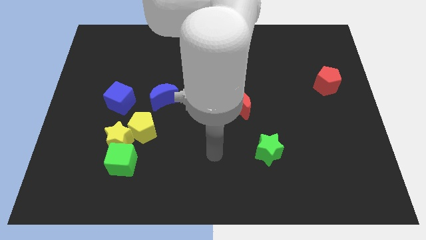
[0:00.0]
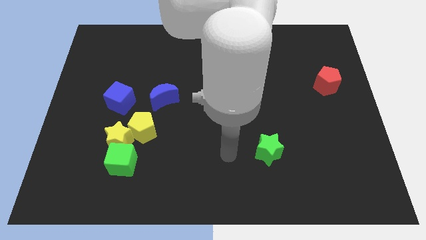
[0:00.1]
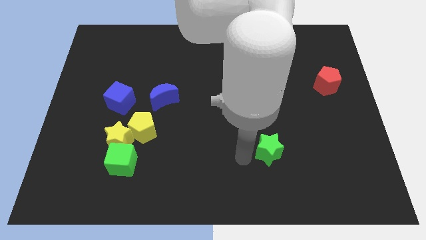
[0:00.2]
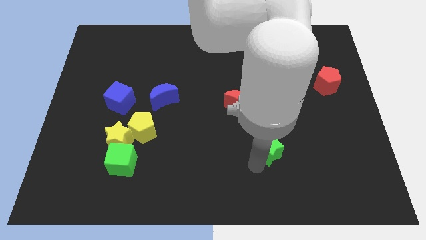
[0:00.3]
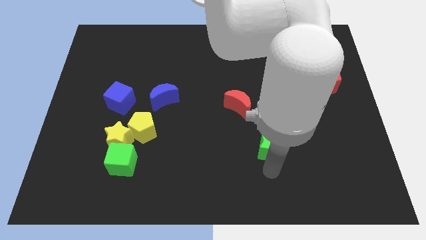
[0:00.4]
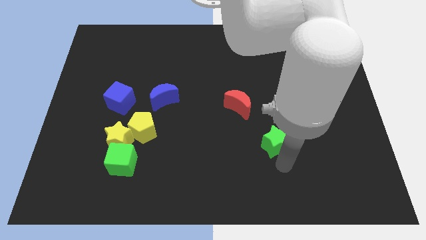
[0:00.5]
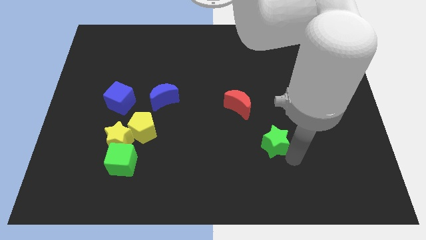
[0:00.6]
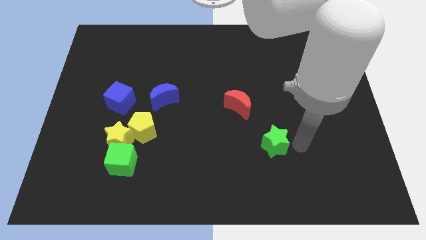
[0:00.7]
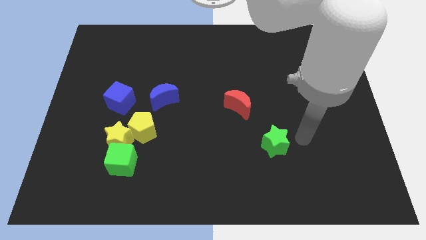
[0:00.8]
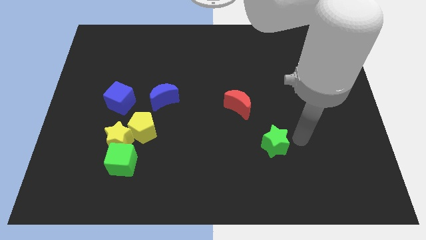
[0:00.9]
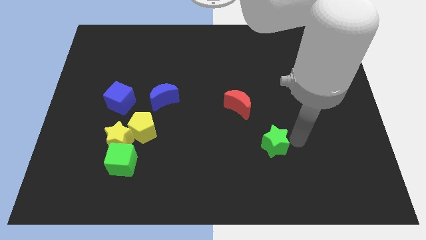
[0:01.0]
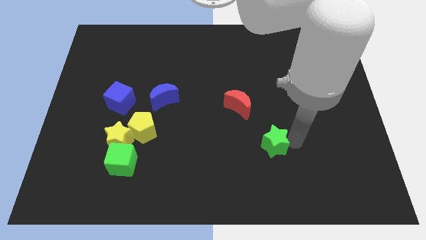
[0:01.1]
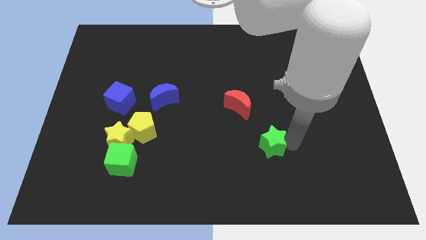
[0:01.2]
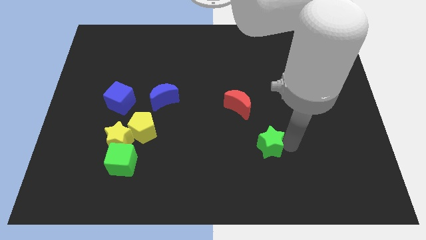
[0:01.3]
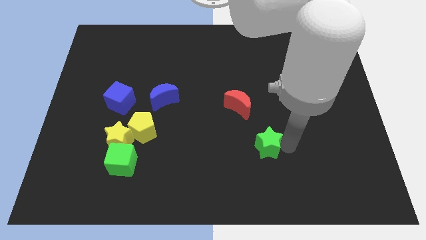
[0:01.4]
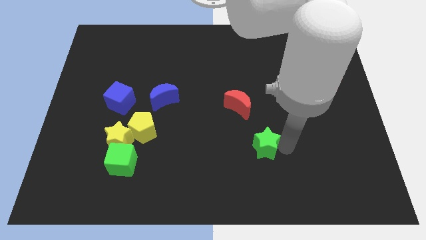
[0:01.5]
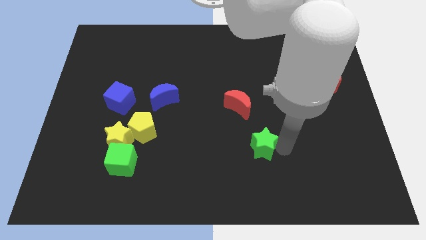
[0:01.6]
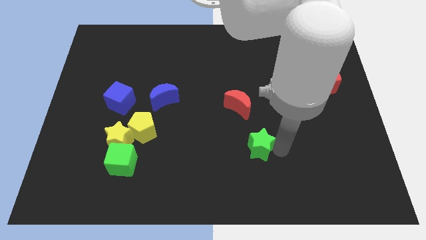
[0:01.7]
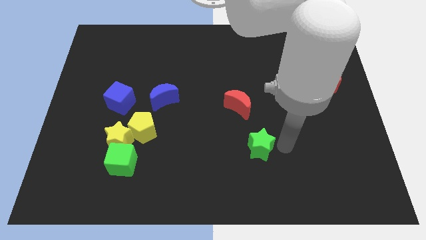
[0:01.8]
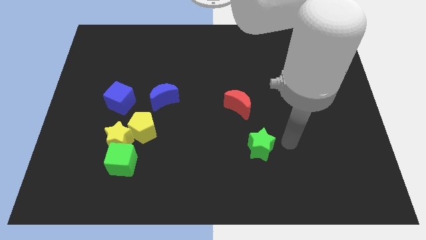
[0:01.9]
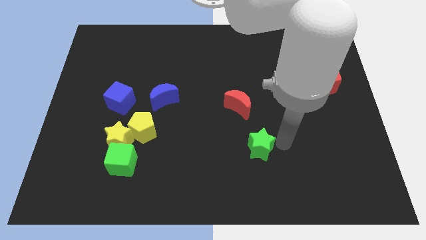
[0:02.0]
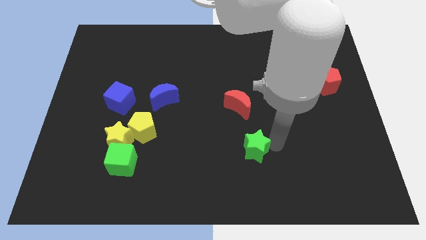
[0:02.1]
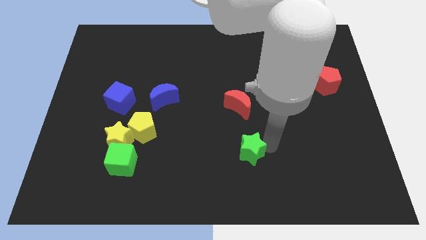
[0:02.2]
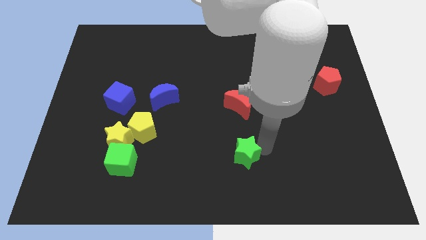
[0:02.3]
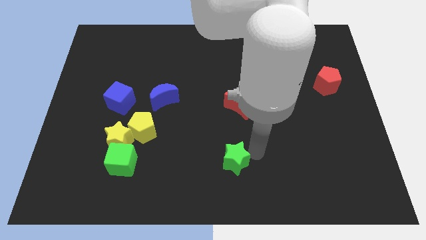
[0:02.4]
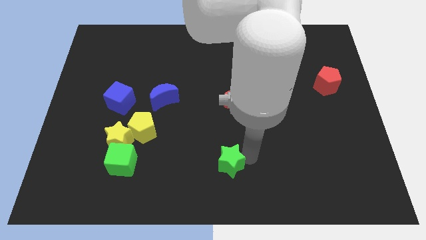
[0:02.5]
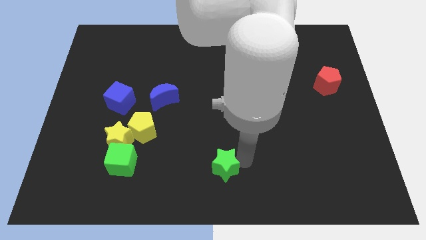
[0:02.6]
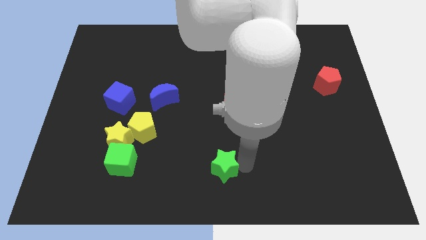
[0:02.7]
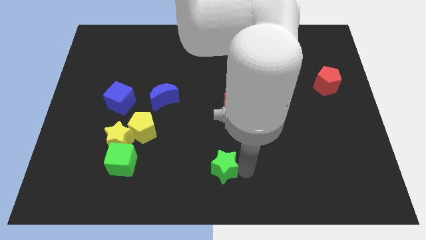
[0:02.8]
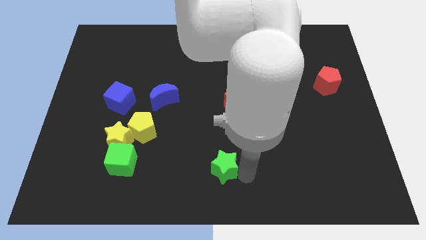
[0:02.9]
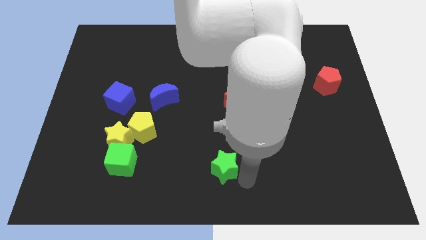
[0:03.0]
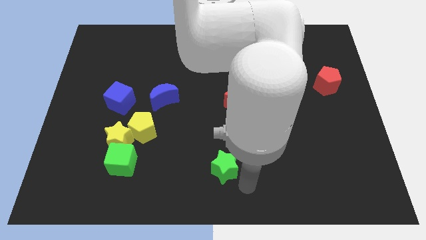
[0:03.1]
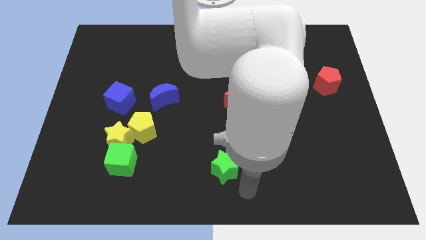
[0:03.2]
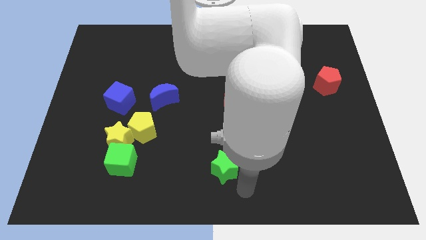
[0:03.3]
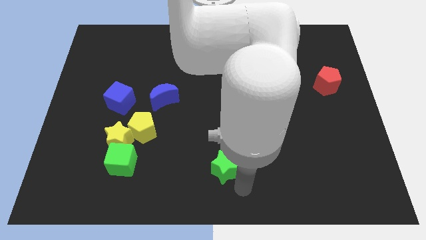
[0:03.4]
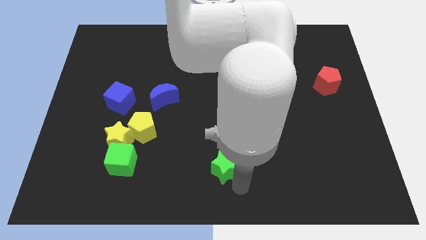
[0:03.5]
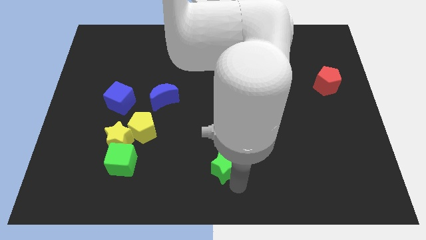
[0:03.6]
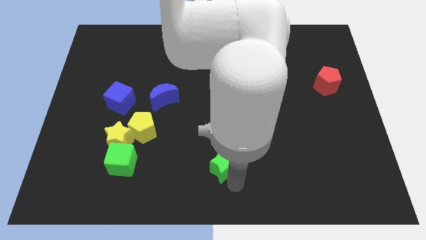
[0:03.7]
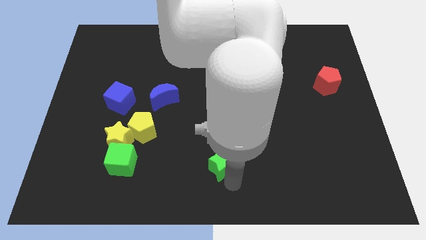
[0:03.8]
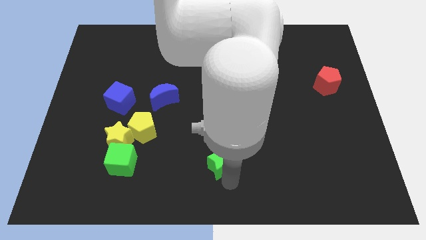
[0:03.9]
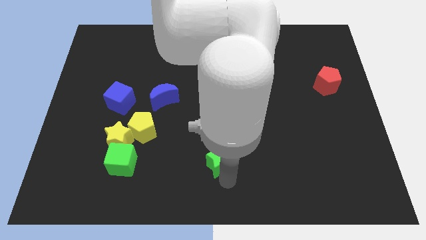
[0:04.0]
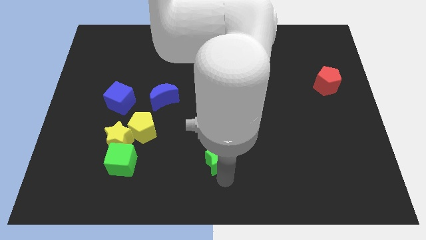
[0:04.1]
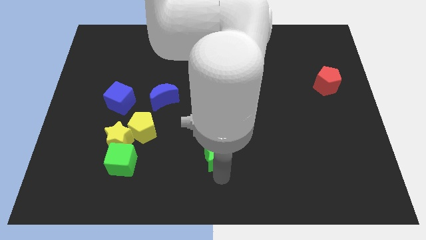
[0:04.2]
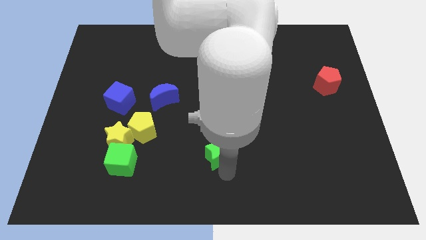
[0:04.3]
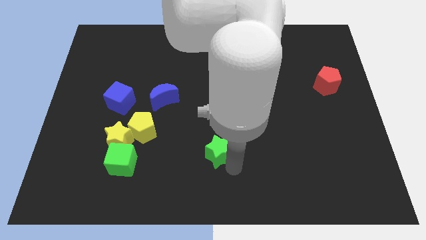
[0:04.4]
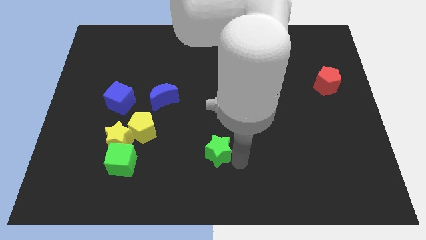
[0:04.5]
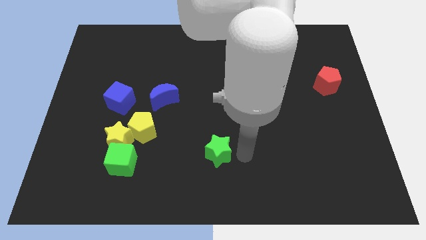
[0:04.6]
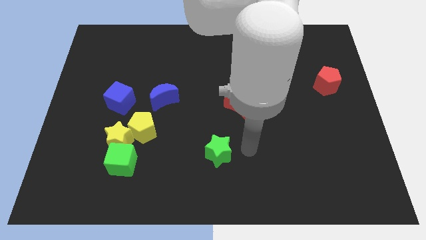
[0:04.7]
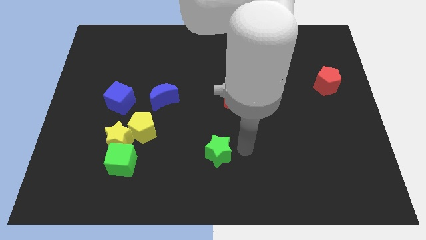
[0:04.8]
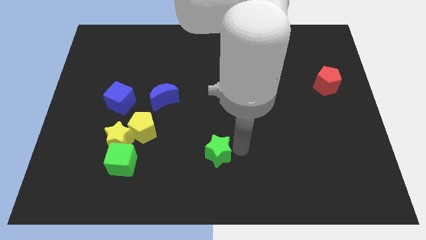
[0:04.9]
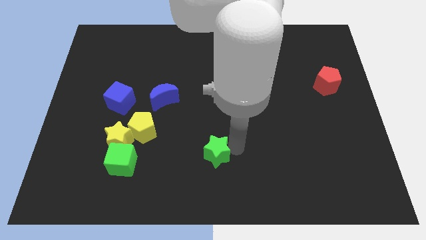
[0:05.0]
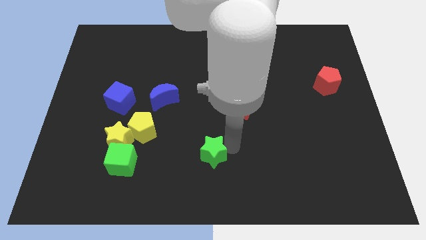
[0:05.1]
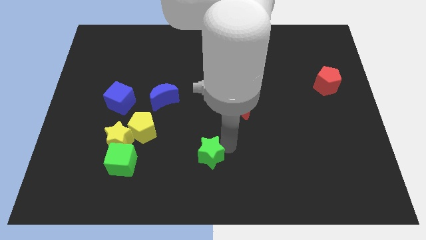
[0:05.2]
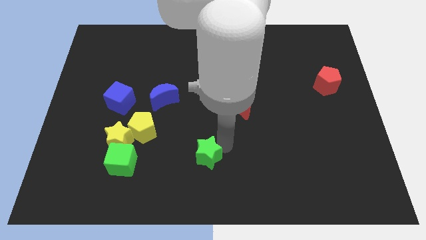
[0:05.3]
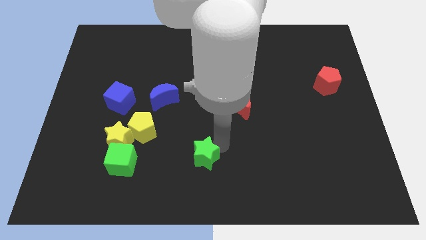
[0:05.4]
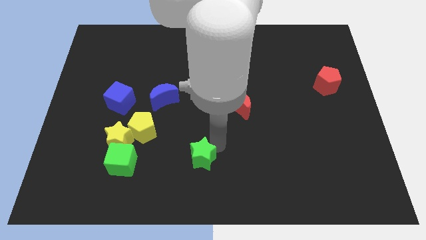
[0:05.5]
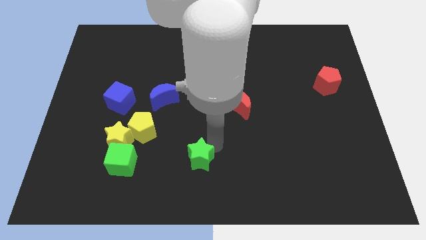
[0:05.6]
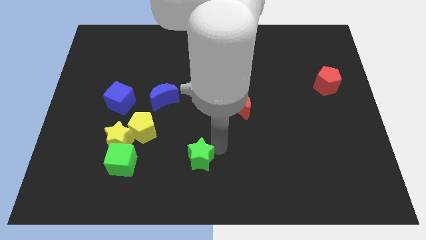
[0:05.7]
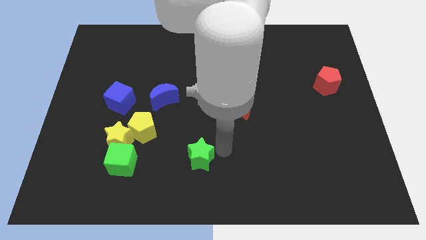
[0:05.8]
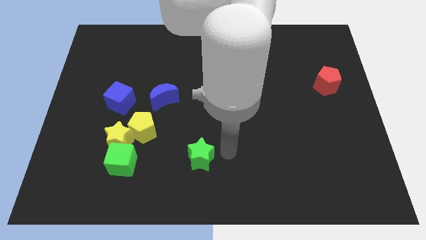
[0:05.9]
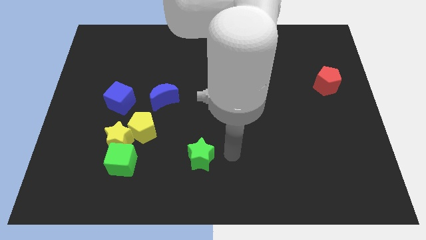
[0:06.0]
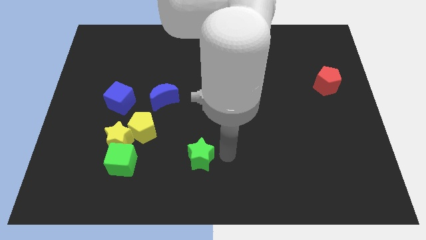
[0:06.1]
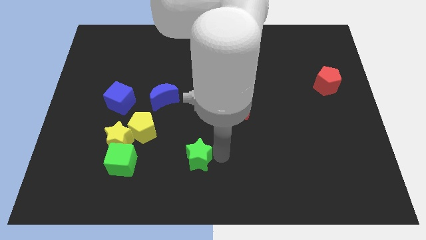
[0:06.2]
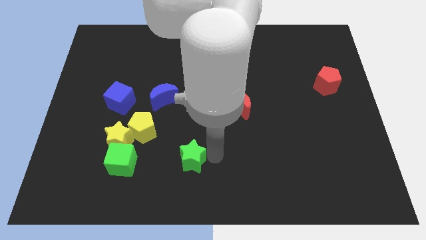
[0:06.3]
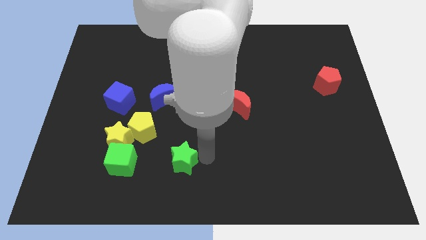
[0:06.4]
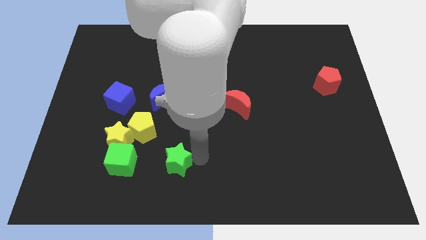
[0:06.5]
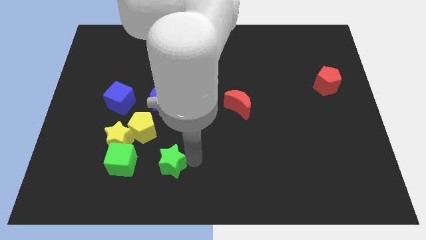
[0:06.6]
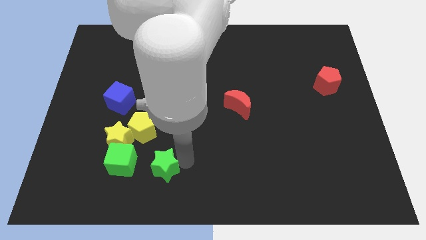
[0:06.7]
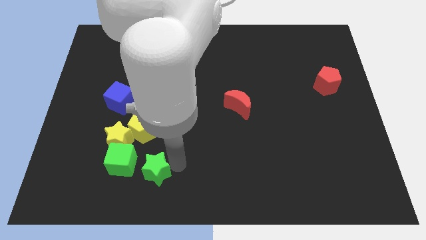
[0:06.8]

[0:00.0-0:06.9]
put the green star to the bottom of the yellow pentagon
